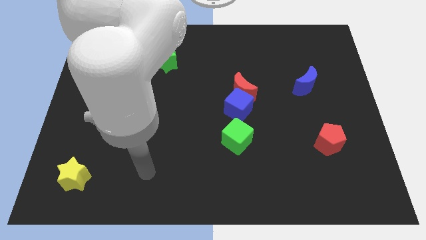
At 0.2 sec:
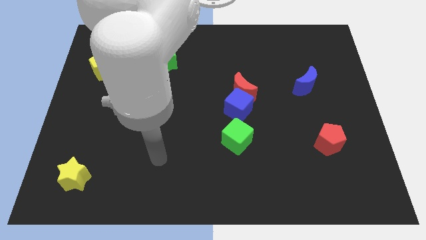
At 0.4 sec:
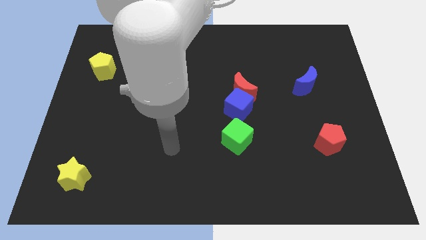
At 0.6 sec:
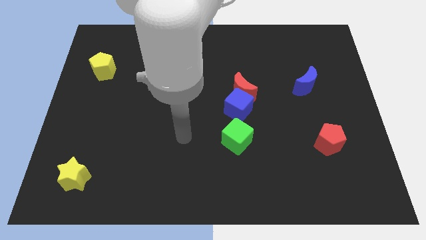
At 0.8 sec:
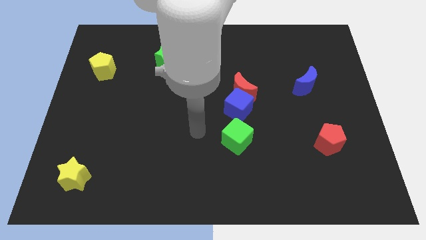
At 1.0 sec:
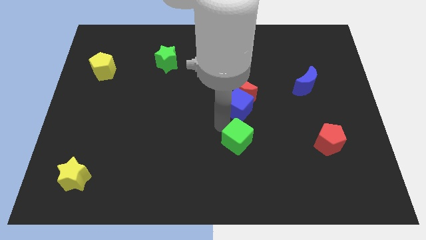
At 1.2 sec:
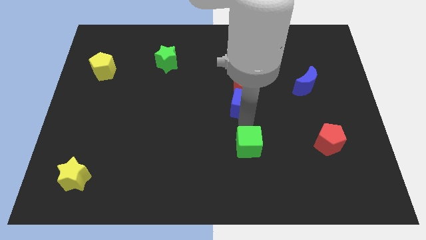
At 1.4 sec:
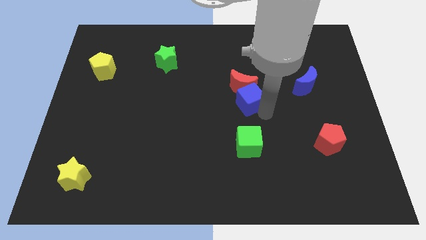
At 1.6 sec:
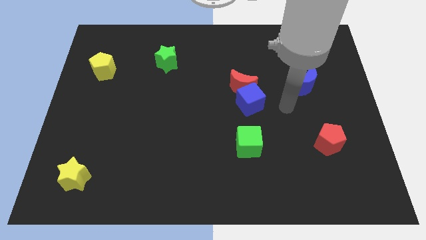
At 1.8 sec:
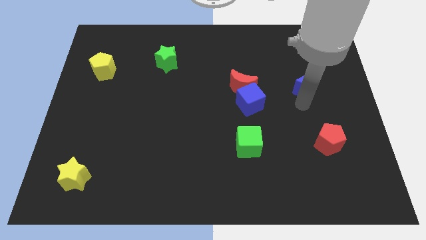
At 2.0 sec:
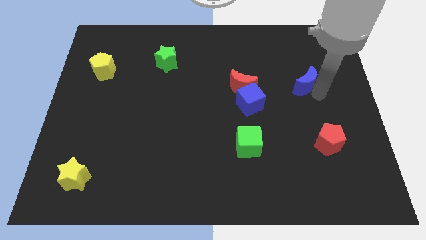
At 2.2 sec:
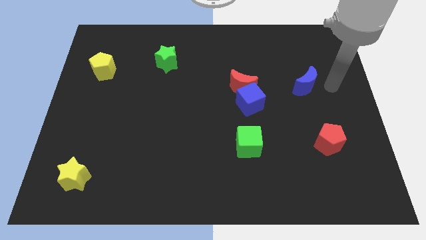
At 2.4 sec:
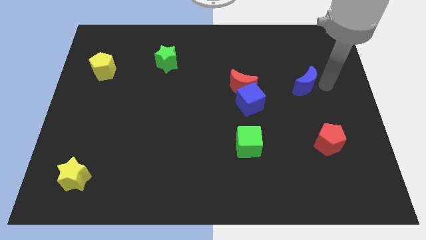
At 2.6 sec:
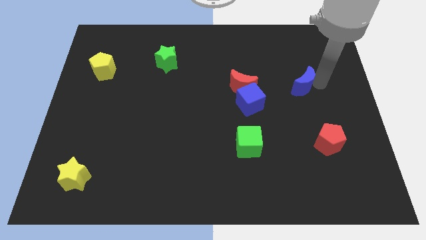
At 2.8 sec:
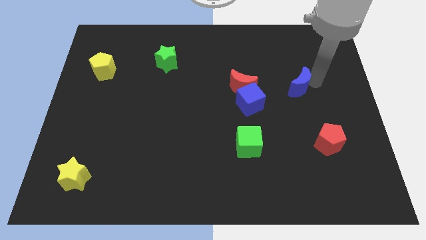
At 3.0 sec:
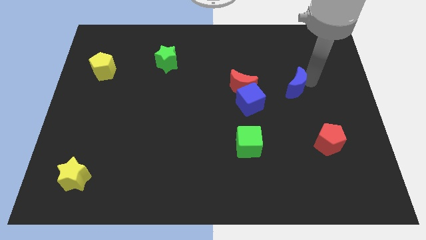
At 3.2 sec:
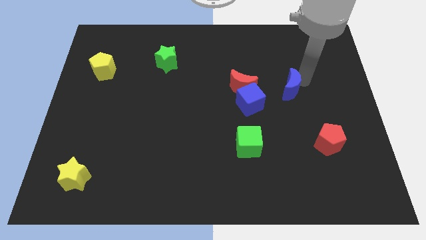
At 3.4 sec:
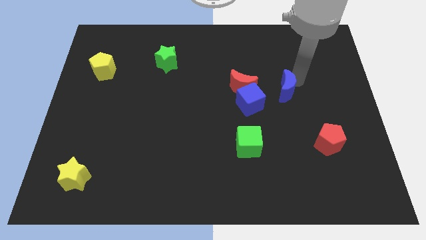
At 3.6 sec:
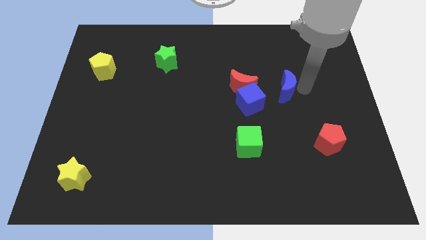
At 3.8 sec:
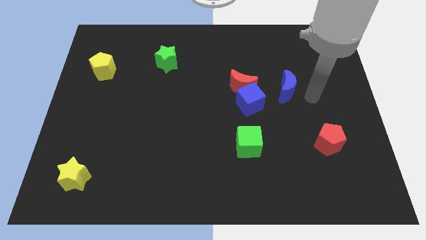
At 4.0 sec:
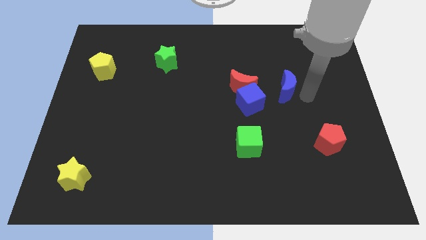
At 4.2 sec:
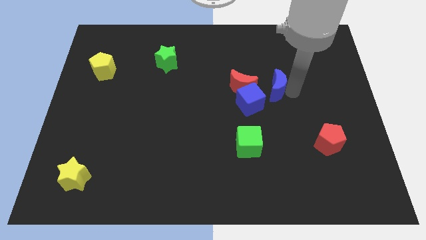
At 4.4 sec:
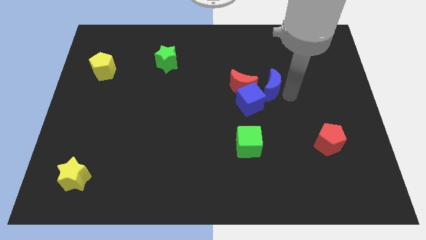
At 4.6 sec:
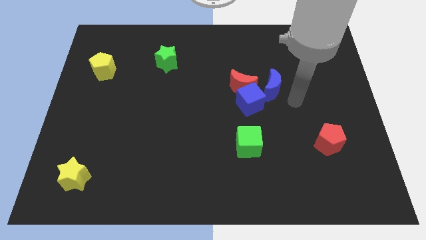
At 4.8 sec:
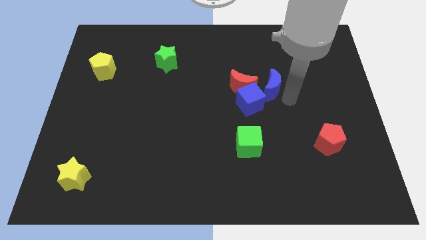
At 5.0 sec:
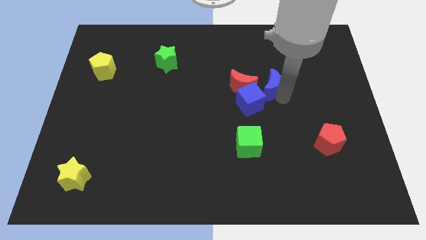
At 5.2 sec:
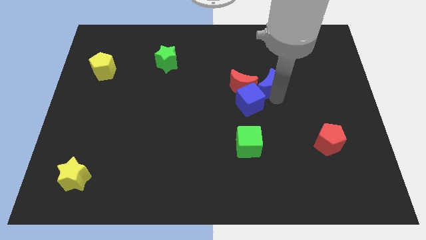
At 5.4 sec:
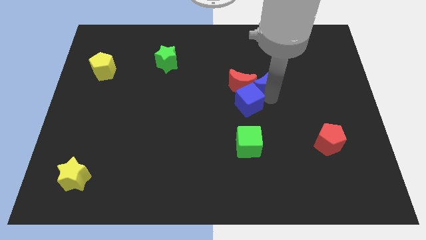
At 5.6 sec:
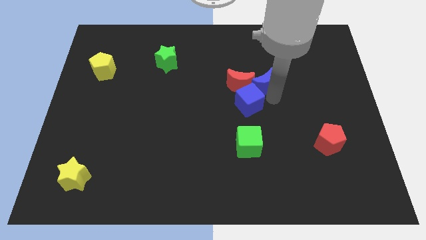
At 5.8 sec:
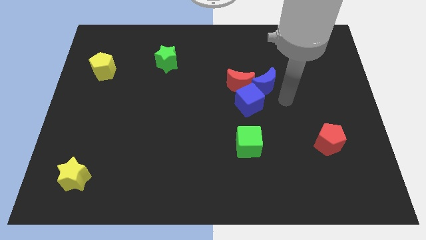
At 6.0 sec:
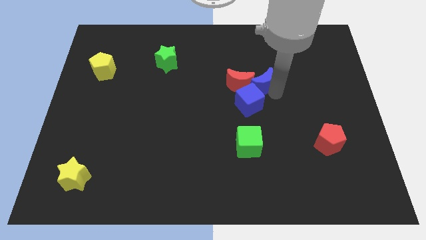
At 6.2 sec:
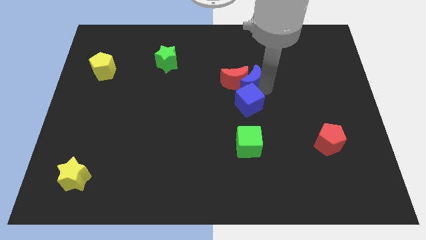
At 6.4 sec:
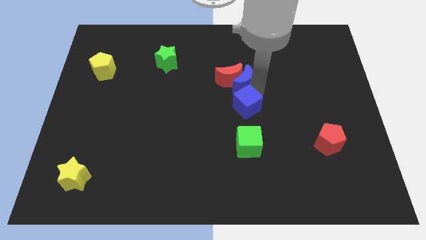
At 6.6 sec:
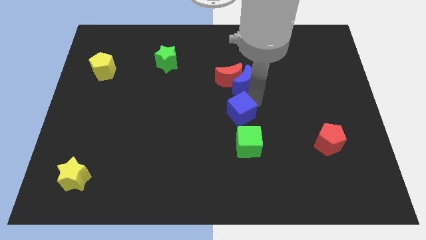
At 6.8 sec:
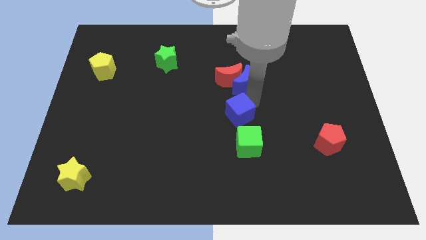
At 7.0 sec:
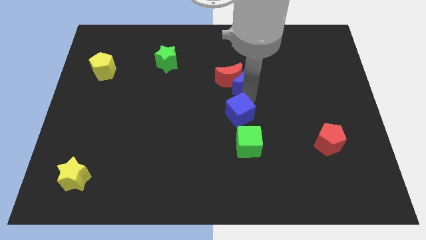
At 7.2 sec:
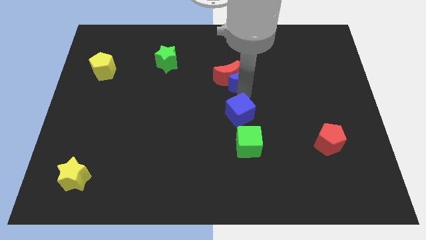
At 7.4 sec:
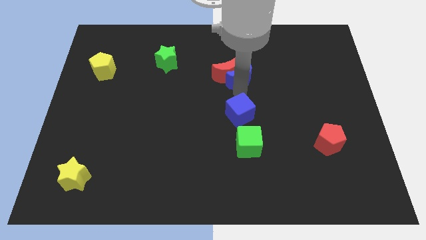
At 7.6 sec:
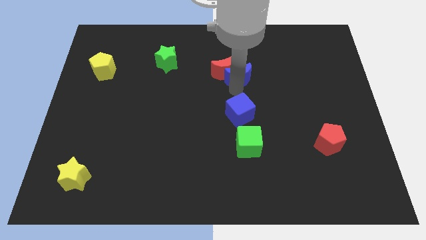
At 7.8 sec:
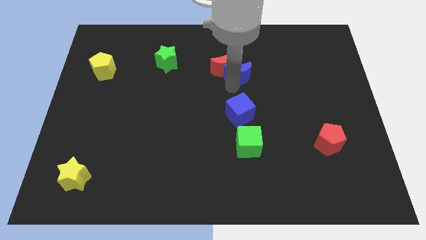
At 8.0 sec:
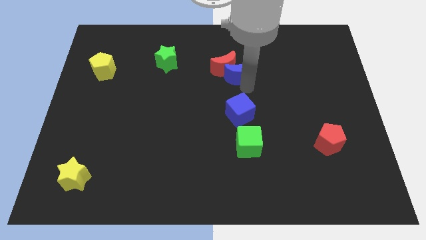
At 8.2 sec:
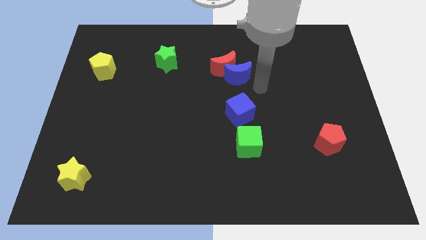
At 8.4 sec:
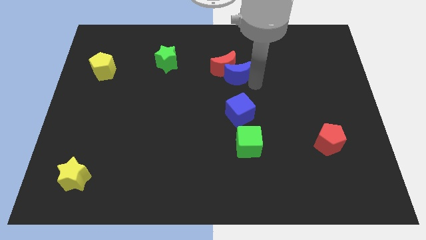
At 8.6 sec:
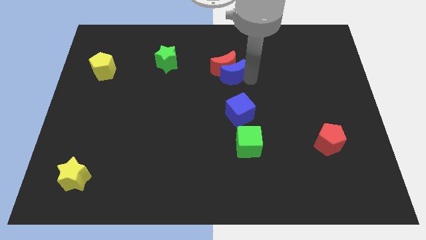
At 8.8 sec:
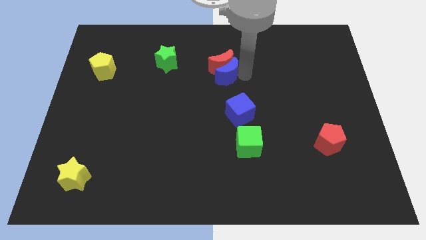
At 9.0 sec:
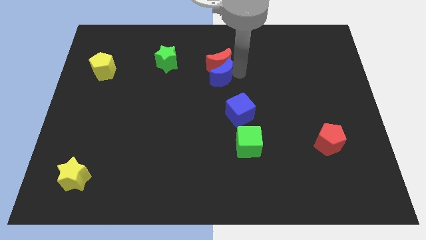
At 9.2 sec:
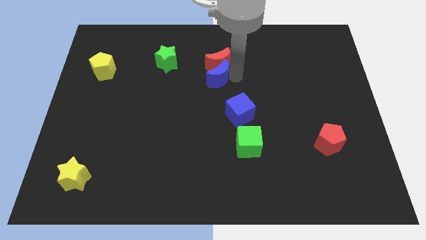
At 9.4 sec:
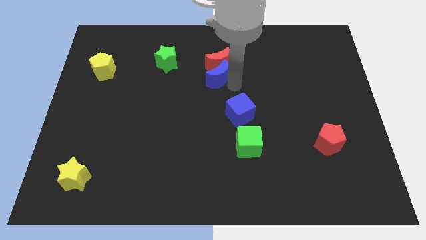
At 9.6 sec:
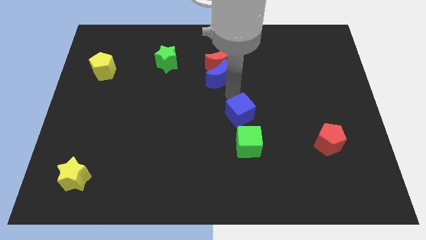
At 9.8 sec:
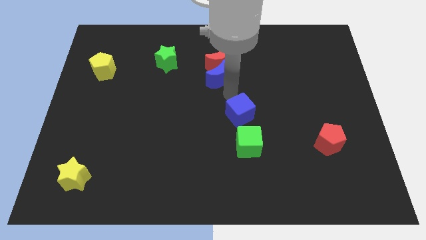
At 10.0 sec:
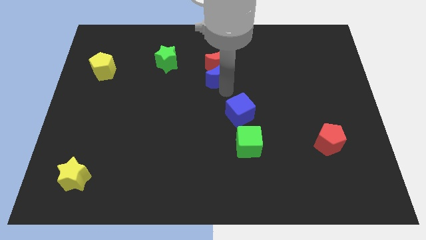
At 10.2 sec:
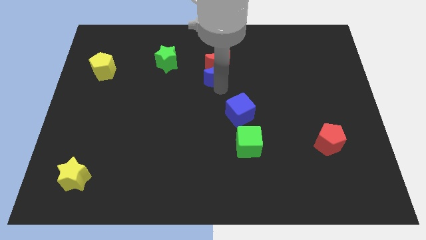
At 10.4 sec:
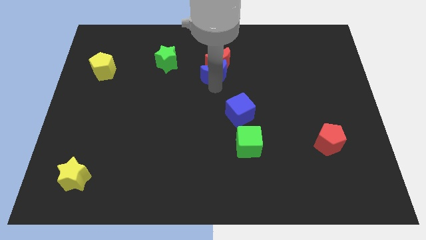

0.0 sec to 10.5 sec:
put the blue moon just right of the green star

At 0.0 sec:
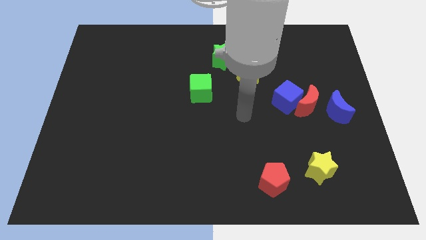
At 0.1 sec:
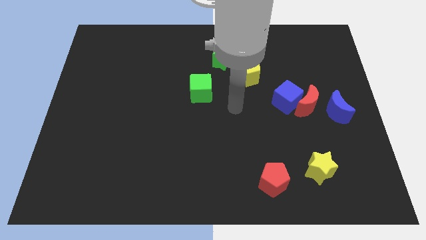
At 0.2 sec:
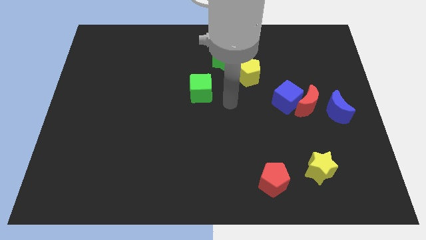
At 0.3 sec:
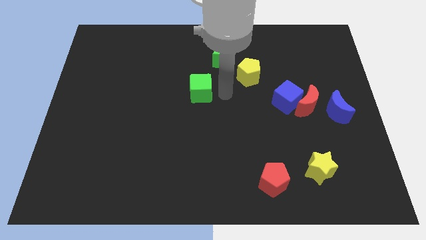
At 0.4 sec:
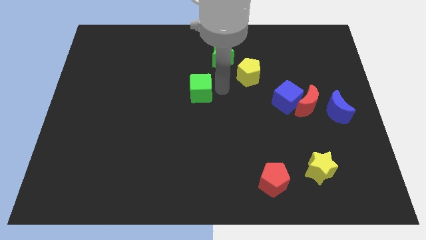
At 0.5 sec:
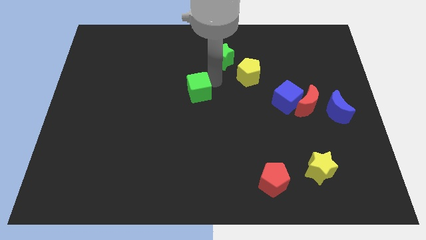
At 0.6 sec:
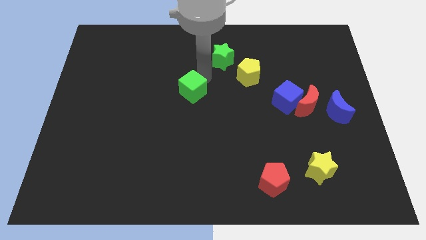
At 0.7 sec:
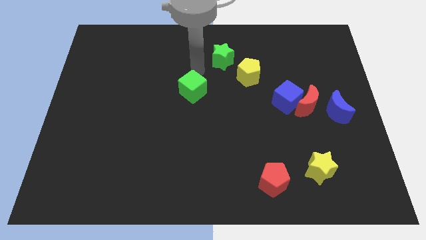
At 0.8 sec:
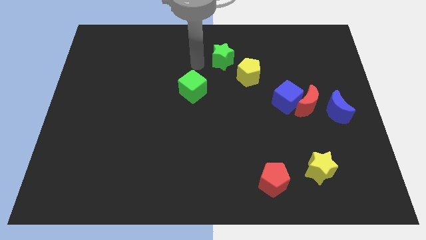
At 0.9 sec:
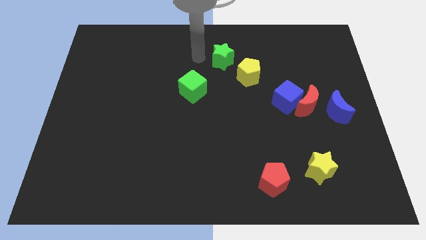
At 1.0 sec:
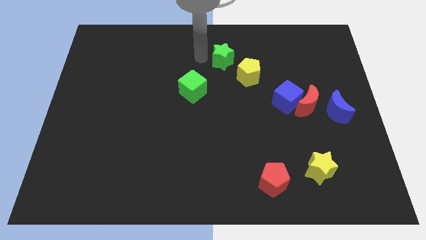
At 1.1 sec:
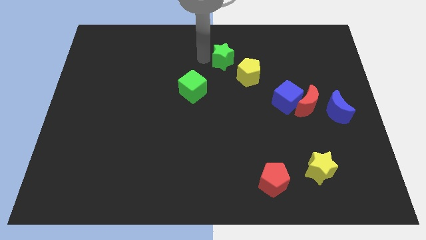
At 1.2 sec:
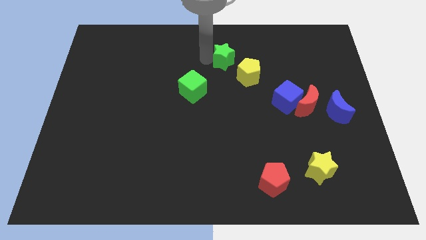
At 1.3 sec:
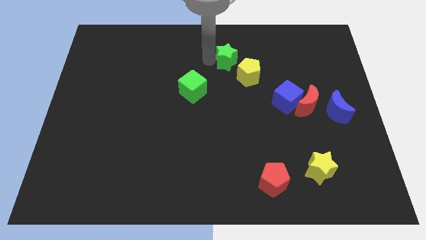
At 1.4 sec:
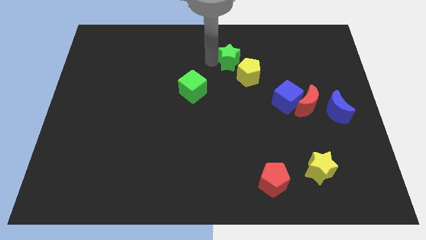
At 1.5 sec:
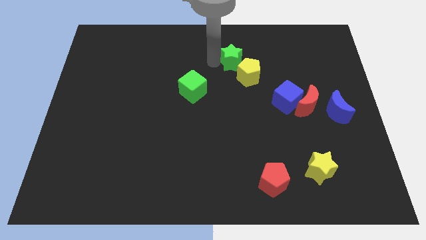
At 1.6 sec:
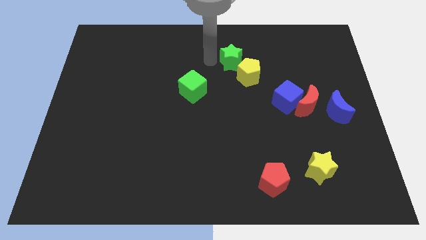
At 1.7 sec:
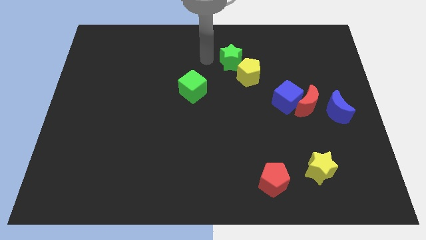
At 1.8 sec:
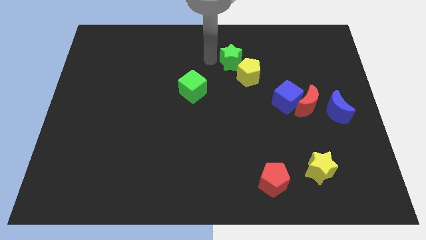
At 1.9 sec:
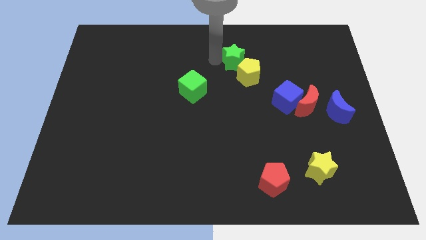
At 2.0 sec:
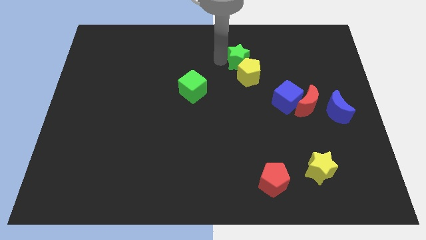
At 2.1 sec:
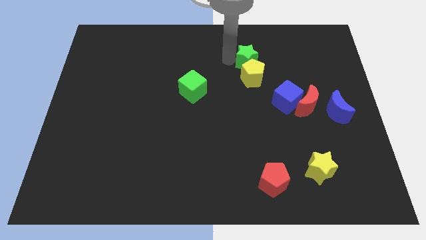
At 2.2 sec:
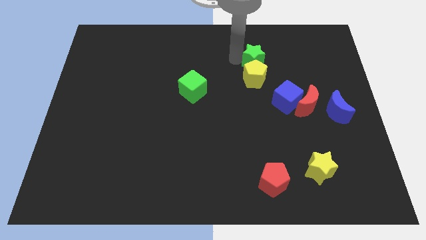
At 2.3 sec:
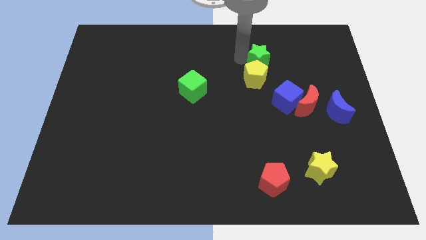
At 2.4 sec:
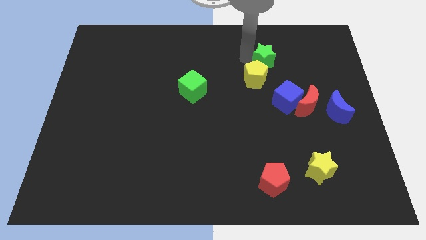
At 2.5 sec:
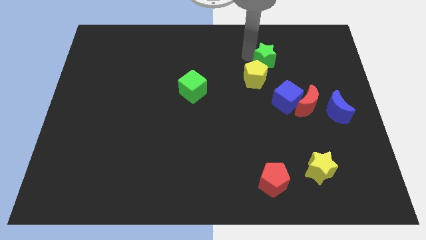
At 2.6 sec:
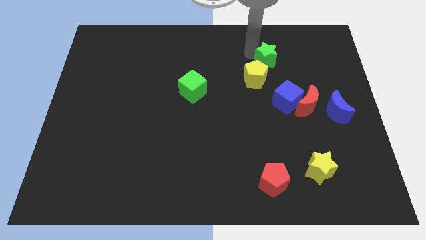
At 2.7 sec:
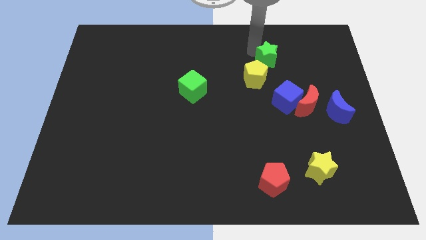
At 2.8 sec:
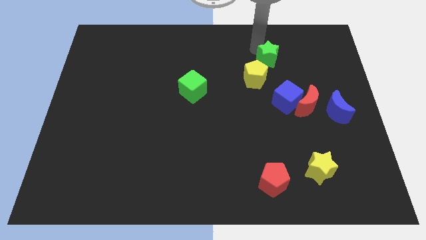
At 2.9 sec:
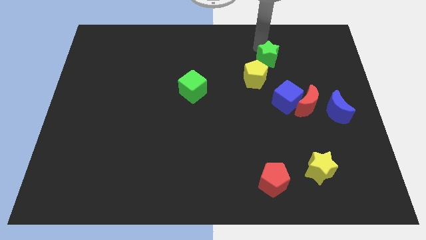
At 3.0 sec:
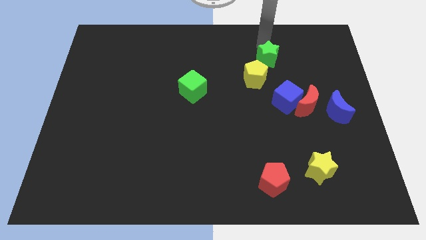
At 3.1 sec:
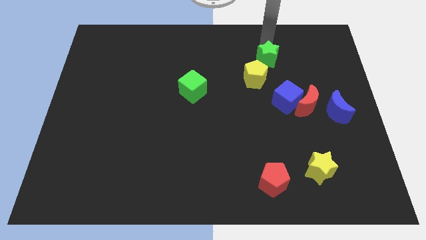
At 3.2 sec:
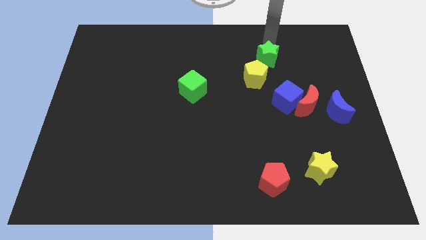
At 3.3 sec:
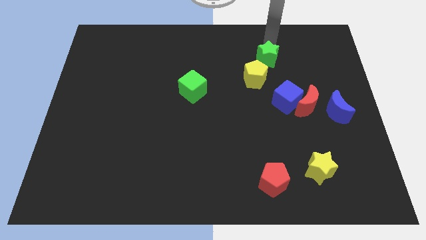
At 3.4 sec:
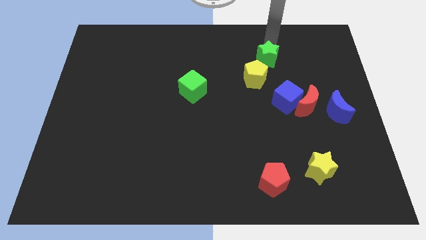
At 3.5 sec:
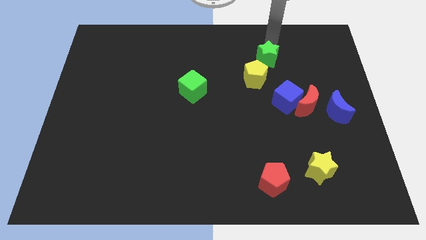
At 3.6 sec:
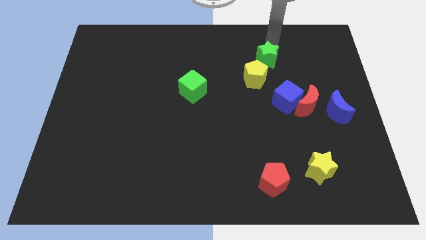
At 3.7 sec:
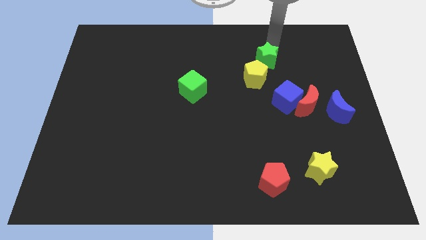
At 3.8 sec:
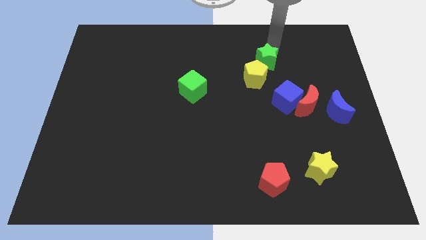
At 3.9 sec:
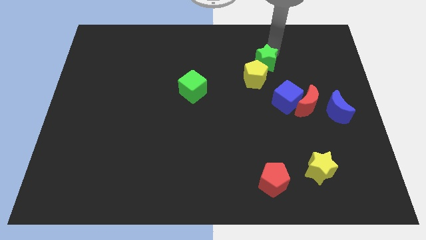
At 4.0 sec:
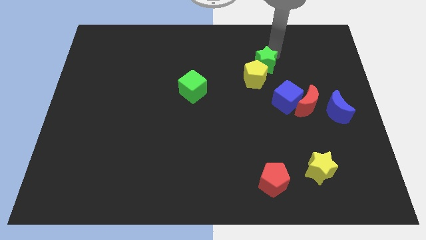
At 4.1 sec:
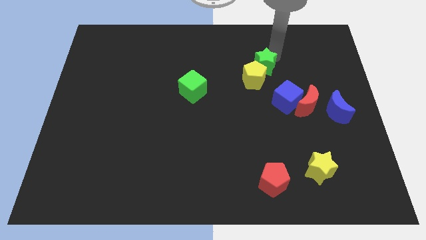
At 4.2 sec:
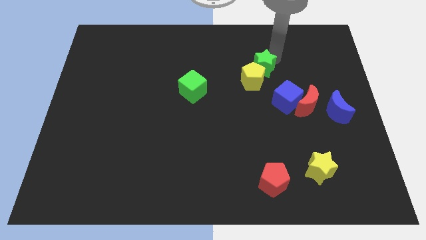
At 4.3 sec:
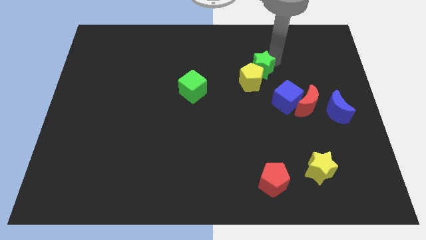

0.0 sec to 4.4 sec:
put the green star diagonally up and to the left of the blue cube
